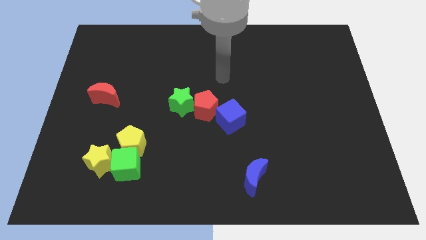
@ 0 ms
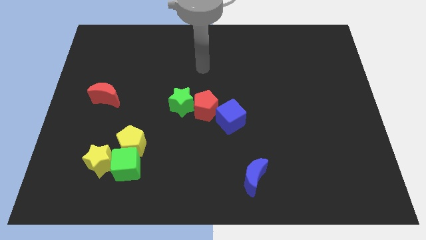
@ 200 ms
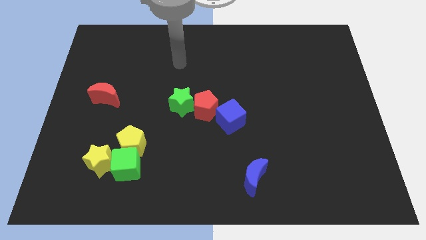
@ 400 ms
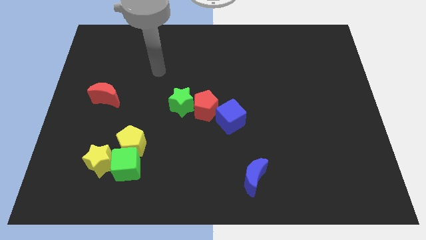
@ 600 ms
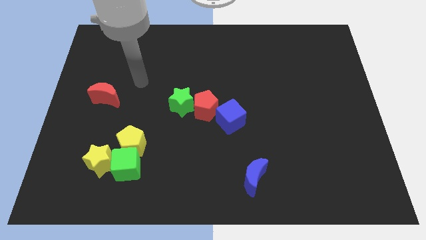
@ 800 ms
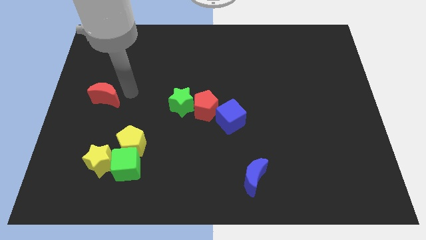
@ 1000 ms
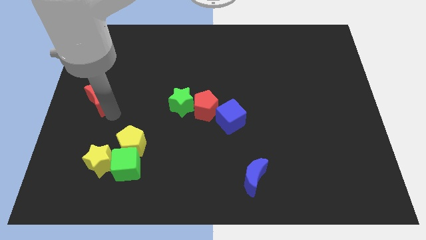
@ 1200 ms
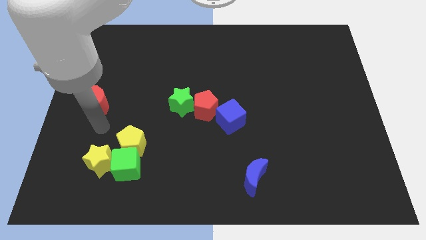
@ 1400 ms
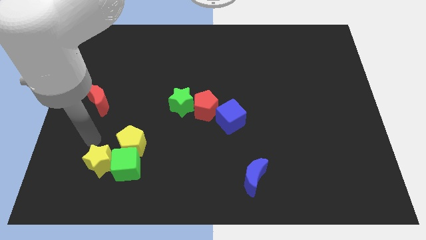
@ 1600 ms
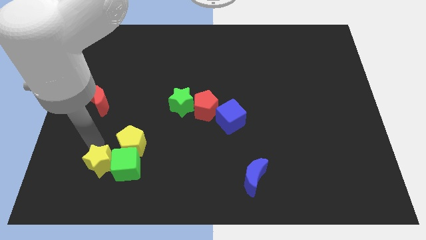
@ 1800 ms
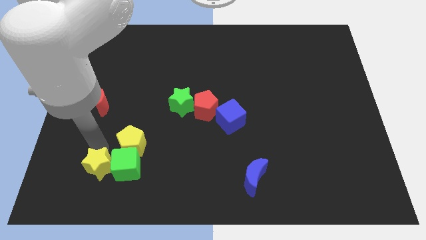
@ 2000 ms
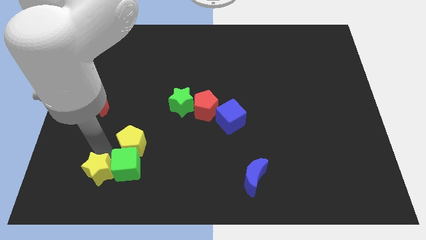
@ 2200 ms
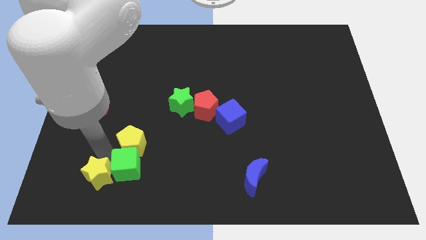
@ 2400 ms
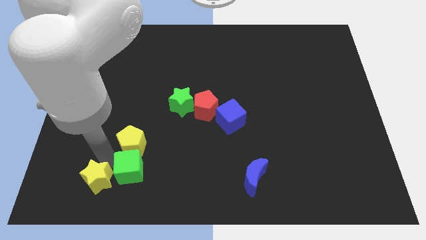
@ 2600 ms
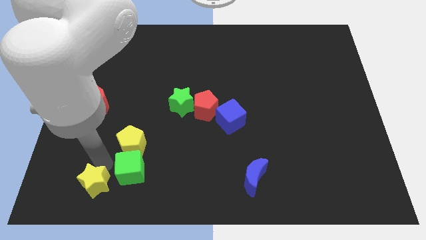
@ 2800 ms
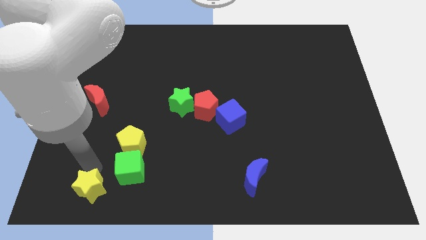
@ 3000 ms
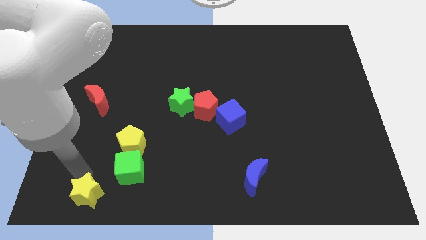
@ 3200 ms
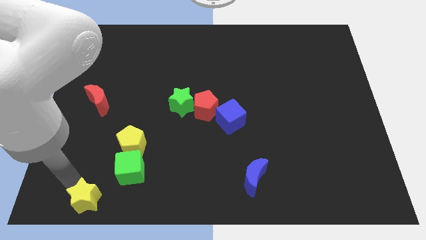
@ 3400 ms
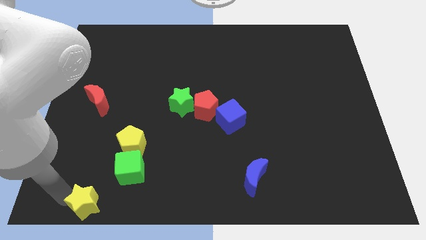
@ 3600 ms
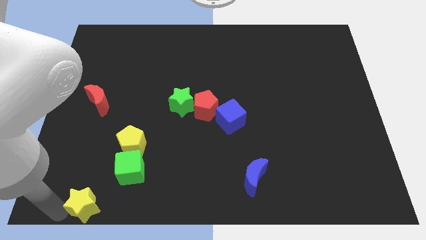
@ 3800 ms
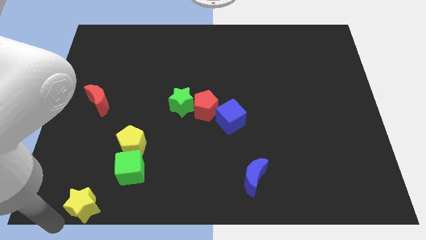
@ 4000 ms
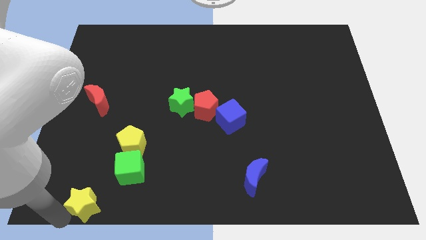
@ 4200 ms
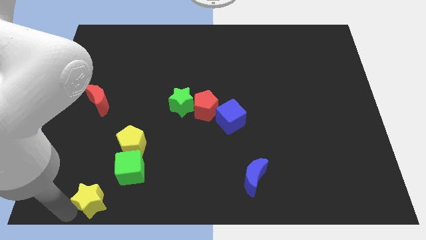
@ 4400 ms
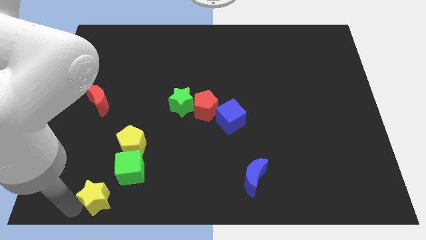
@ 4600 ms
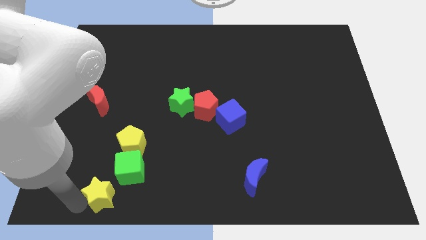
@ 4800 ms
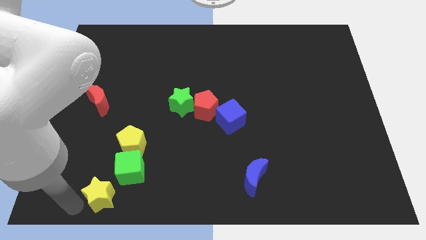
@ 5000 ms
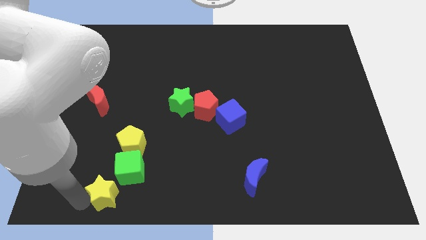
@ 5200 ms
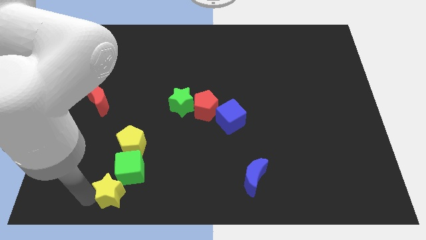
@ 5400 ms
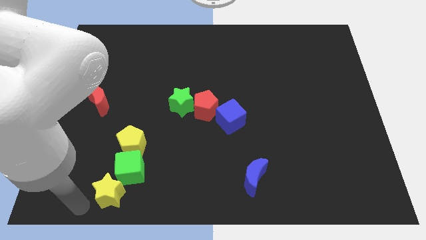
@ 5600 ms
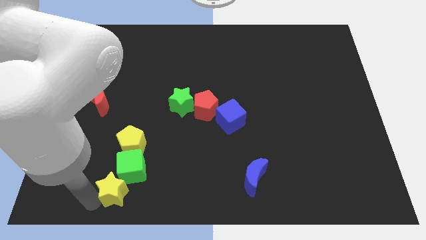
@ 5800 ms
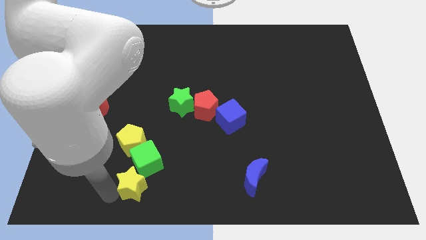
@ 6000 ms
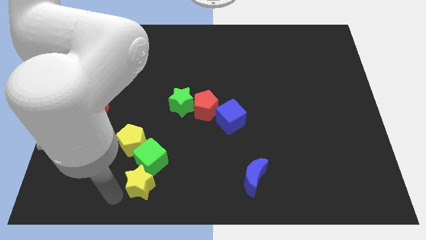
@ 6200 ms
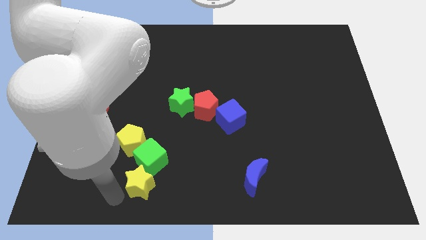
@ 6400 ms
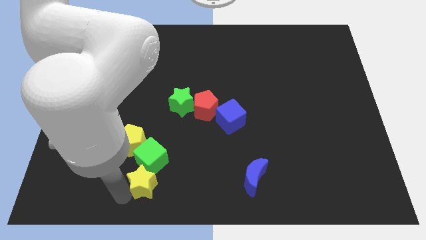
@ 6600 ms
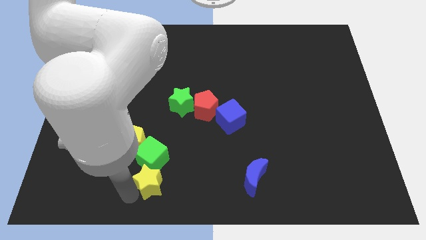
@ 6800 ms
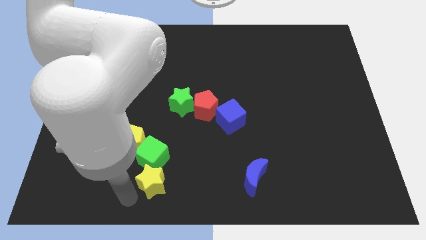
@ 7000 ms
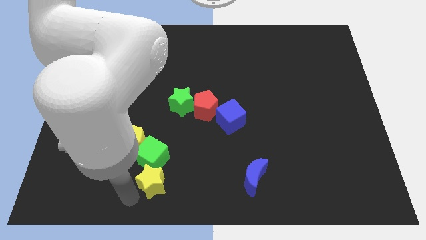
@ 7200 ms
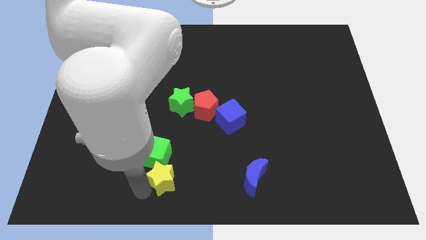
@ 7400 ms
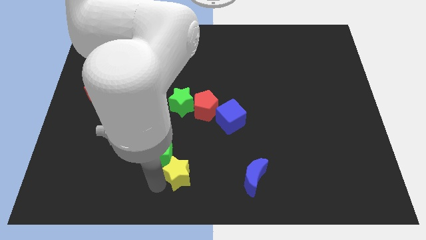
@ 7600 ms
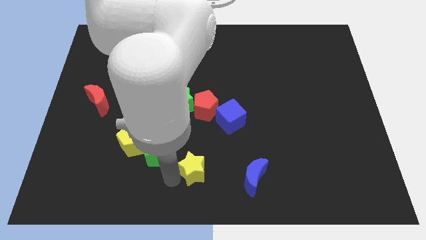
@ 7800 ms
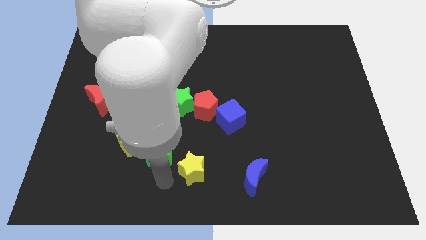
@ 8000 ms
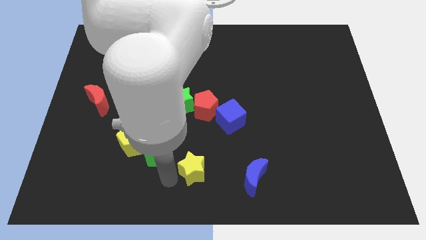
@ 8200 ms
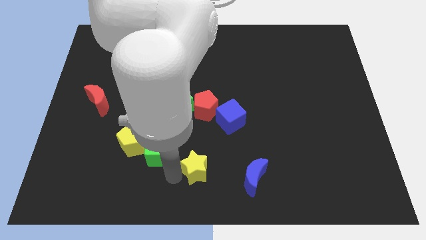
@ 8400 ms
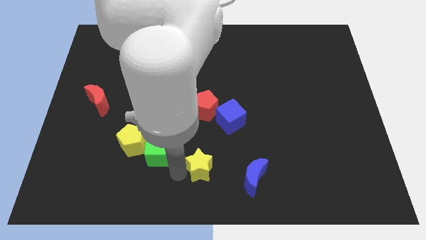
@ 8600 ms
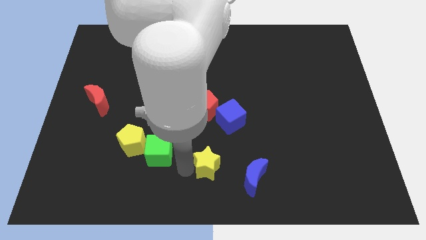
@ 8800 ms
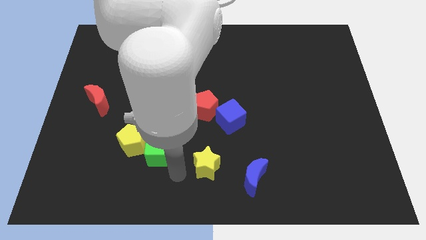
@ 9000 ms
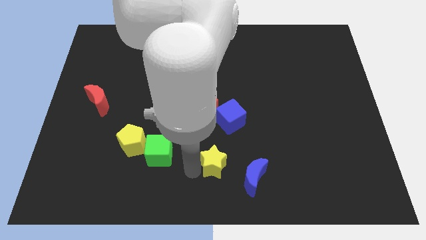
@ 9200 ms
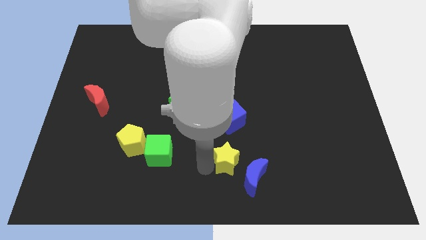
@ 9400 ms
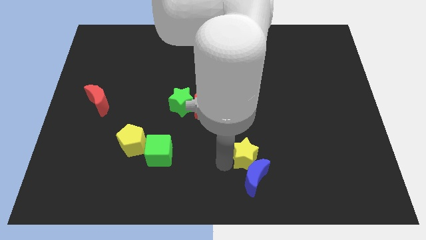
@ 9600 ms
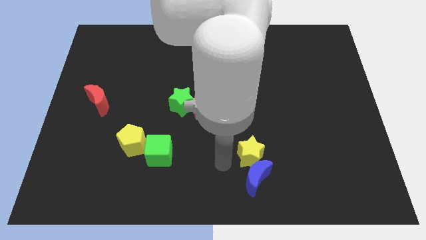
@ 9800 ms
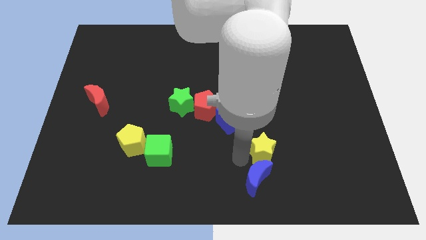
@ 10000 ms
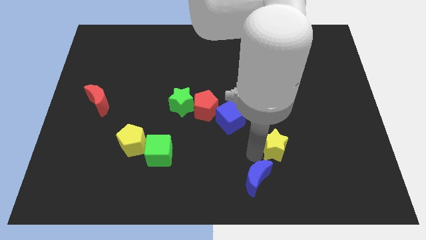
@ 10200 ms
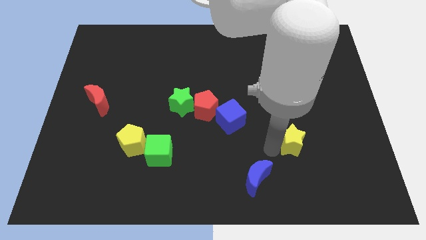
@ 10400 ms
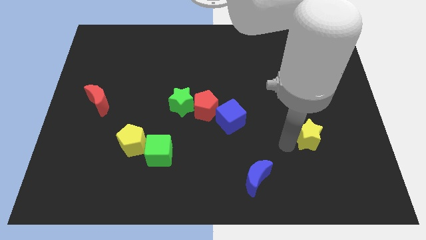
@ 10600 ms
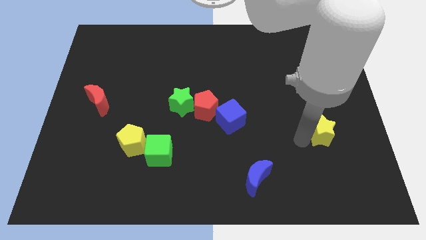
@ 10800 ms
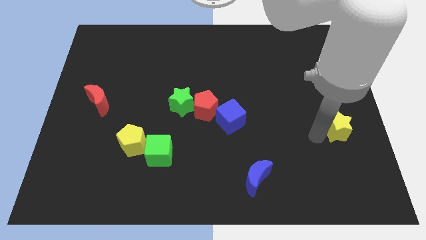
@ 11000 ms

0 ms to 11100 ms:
slide the yellow star to the right side
